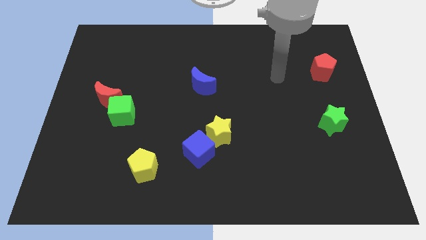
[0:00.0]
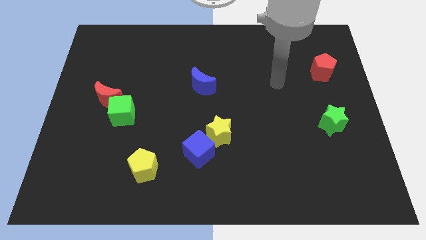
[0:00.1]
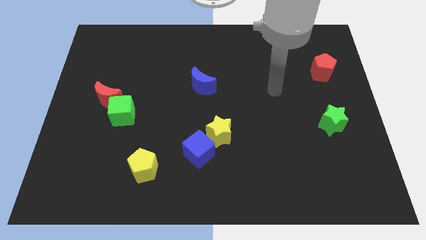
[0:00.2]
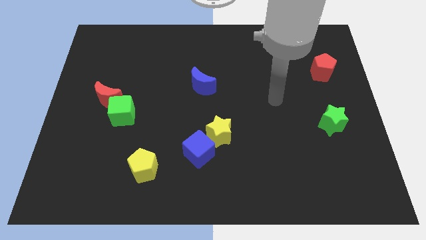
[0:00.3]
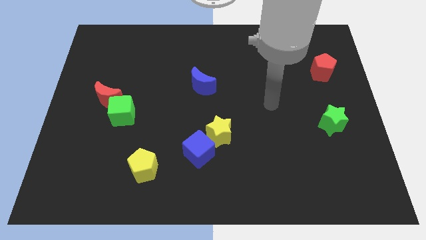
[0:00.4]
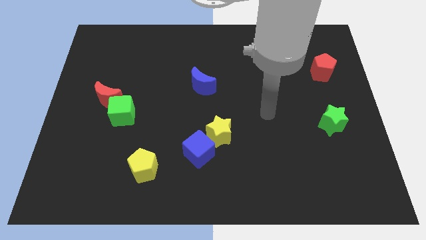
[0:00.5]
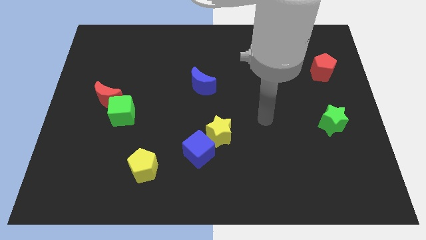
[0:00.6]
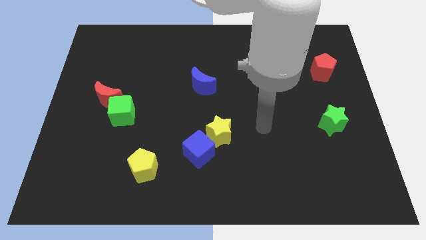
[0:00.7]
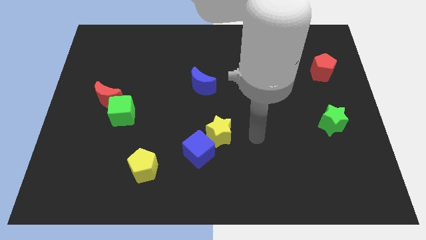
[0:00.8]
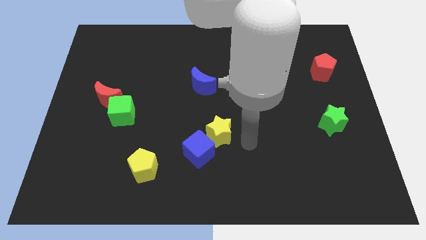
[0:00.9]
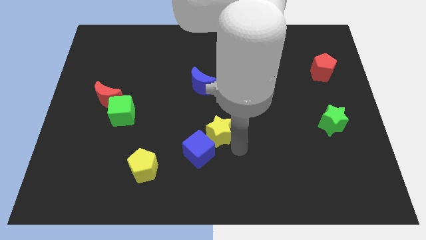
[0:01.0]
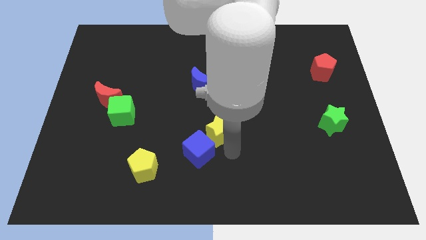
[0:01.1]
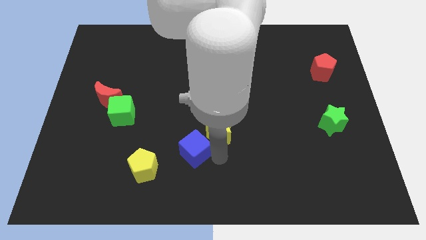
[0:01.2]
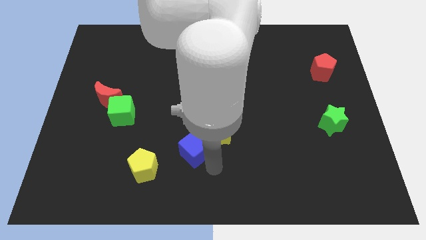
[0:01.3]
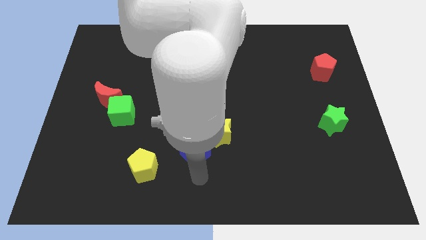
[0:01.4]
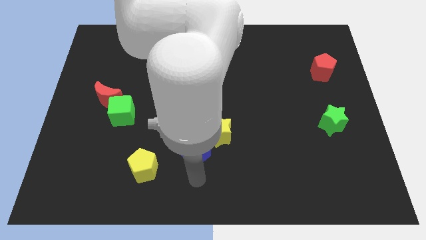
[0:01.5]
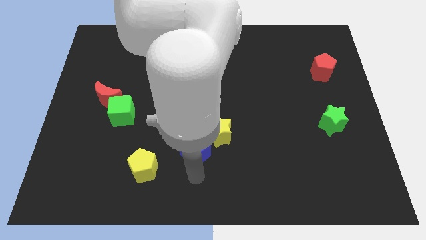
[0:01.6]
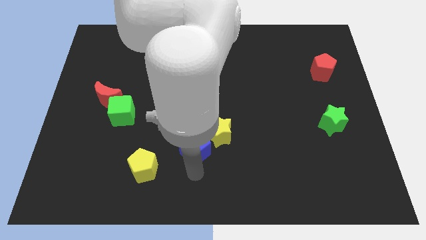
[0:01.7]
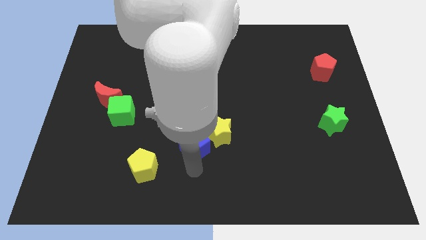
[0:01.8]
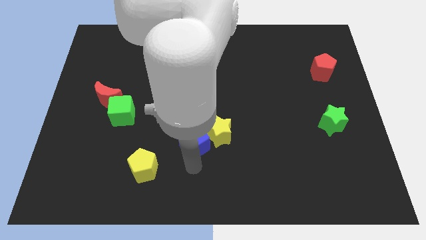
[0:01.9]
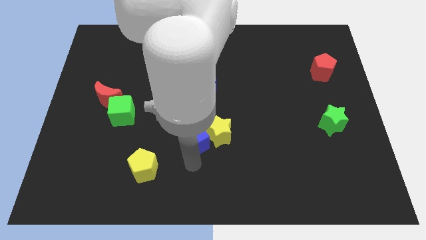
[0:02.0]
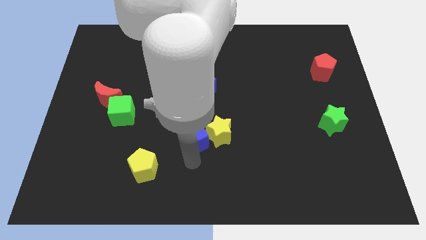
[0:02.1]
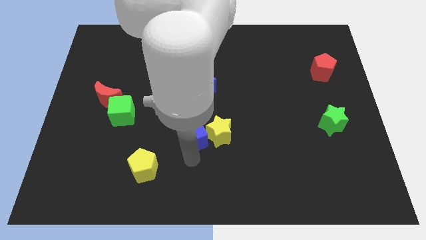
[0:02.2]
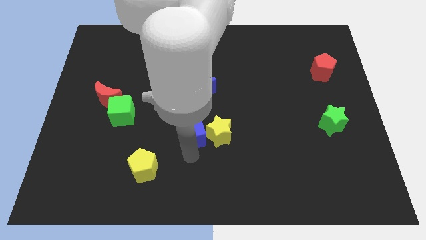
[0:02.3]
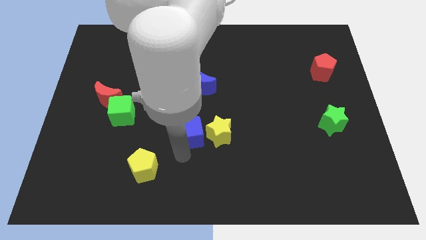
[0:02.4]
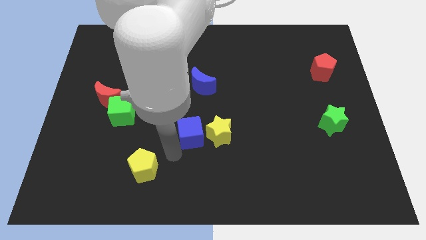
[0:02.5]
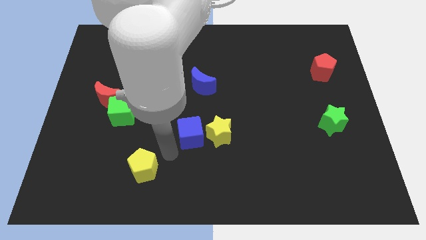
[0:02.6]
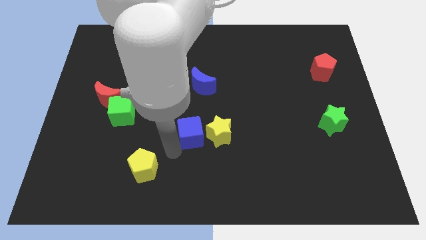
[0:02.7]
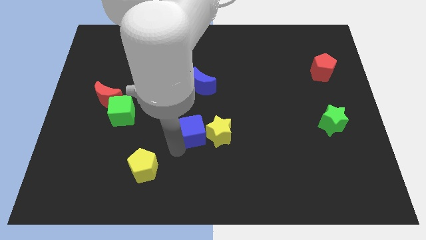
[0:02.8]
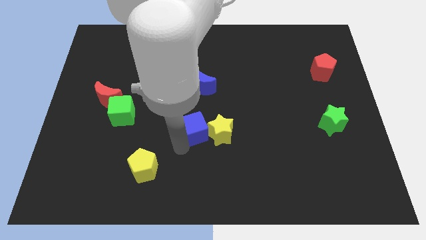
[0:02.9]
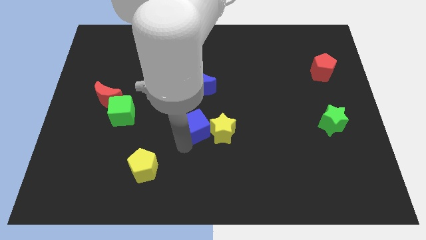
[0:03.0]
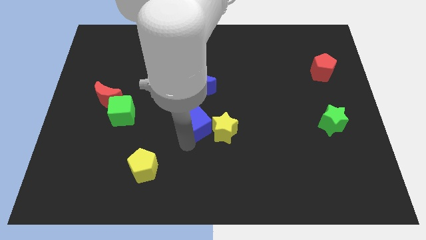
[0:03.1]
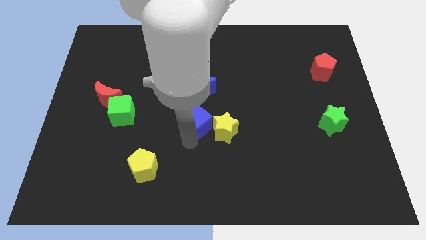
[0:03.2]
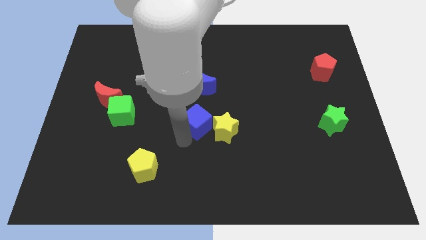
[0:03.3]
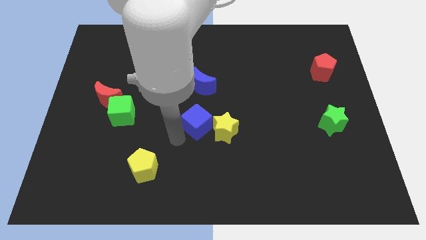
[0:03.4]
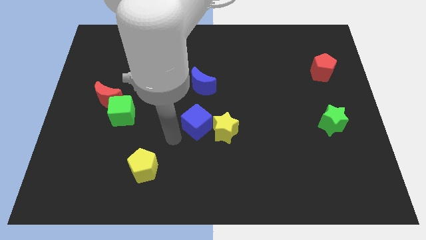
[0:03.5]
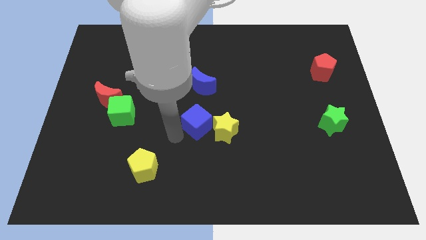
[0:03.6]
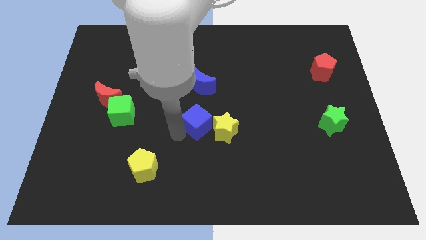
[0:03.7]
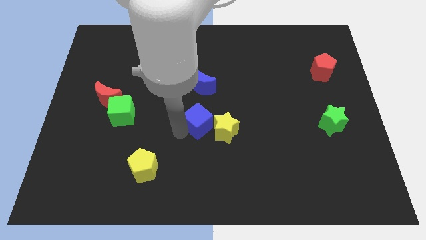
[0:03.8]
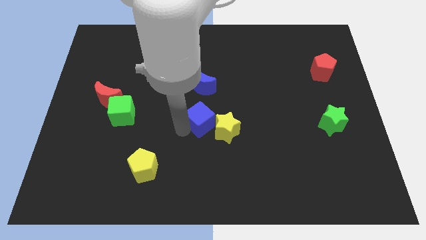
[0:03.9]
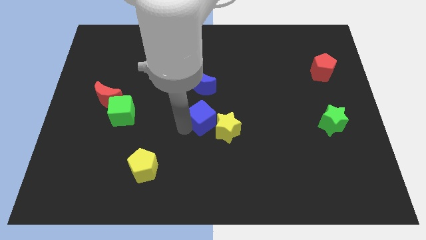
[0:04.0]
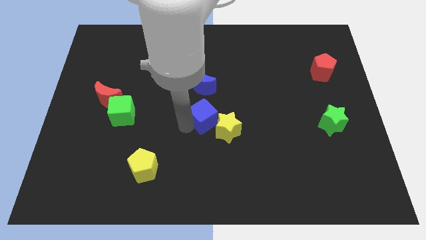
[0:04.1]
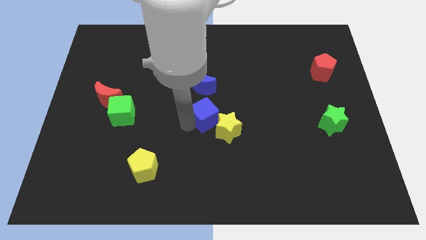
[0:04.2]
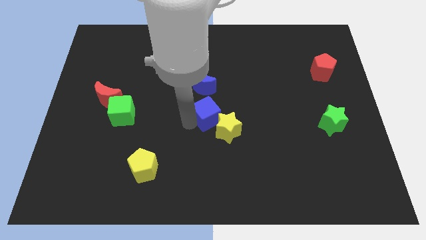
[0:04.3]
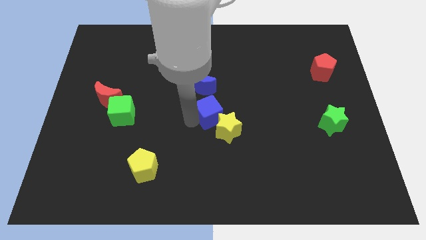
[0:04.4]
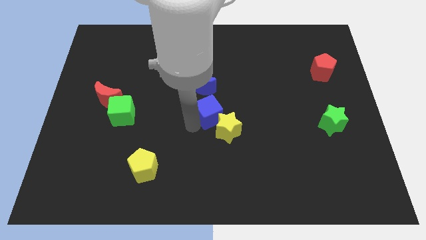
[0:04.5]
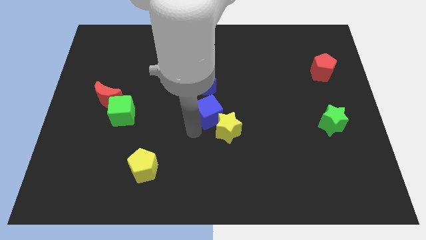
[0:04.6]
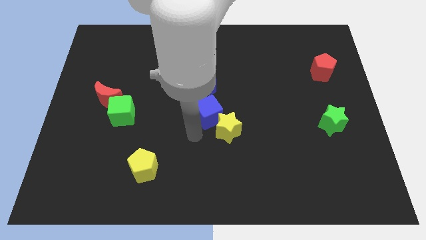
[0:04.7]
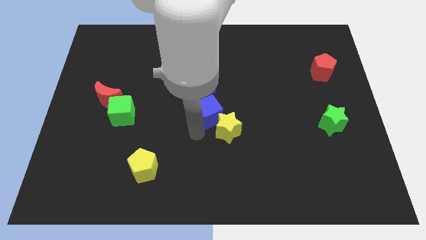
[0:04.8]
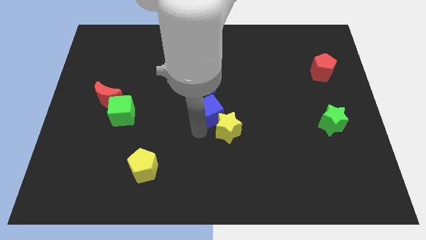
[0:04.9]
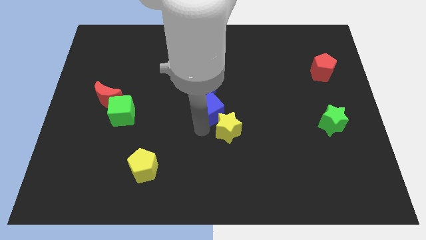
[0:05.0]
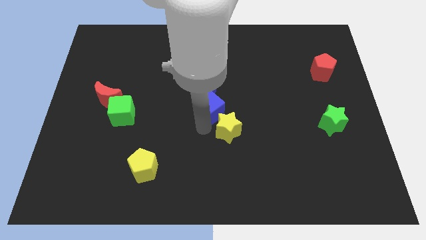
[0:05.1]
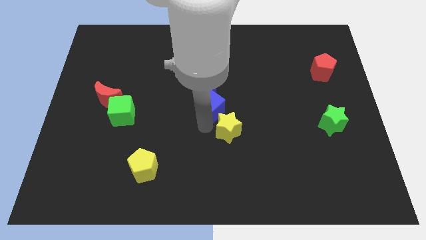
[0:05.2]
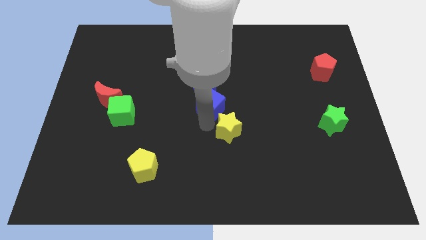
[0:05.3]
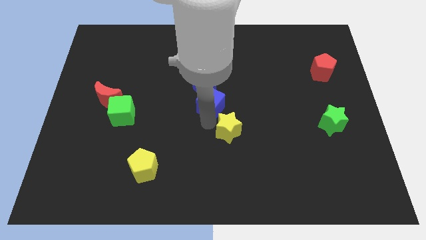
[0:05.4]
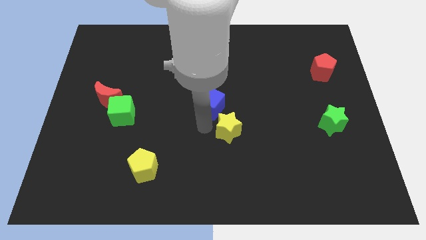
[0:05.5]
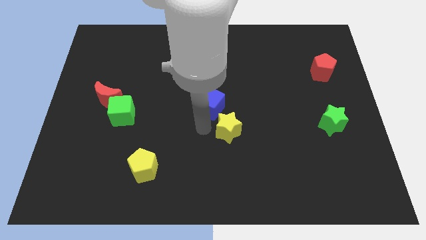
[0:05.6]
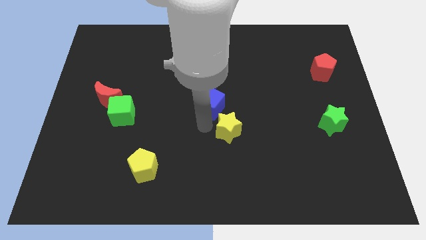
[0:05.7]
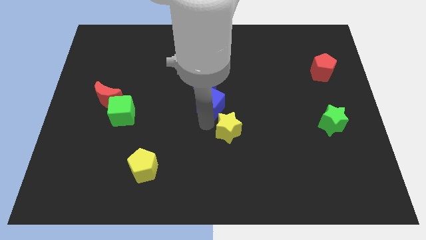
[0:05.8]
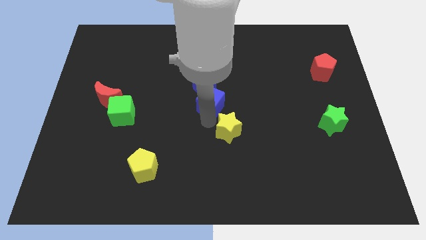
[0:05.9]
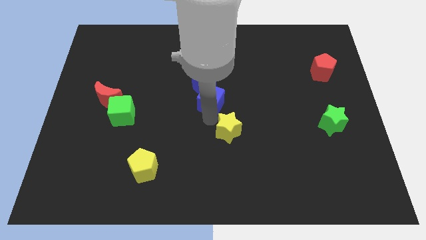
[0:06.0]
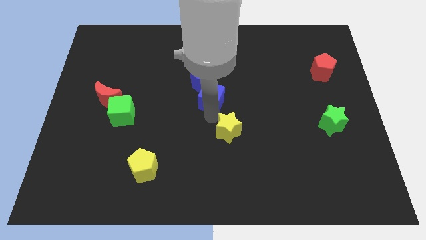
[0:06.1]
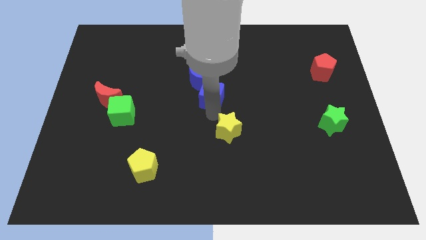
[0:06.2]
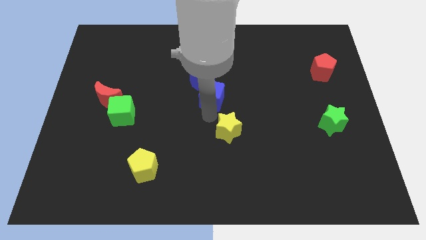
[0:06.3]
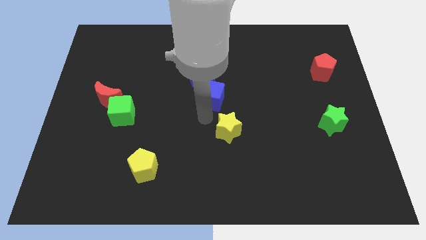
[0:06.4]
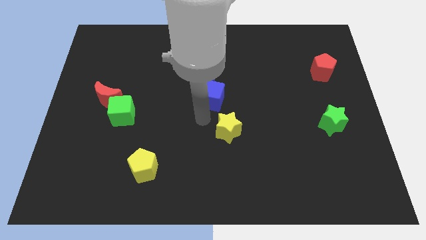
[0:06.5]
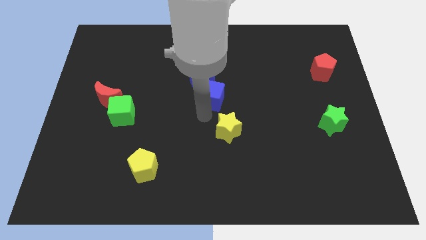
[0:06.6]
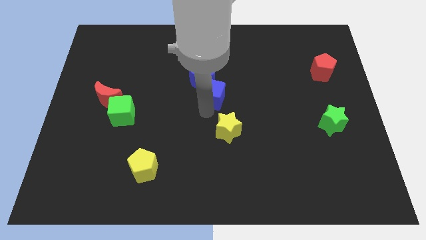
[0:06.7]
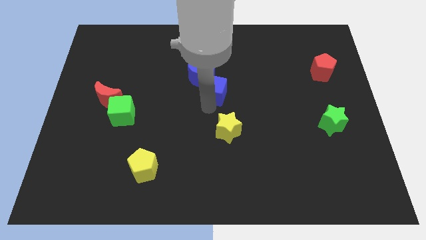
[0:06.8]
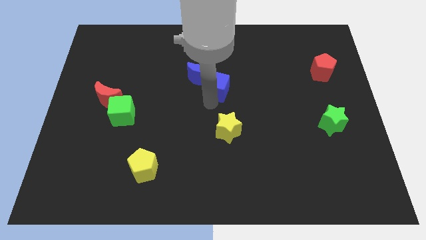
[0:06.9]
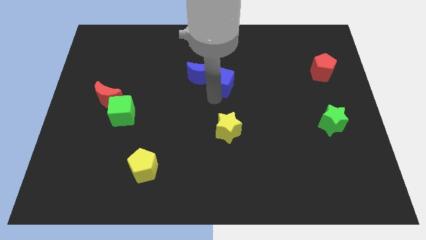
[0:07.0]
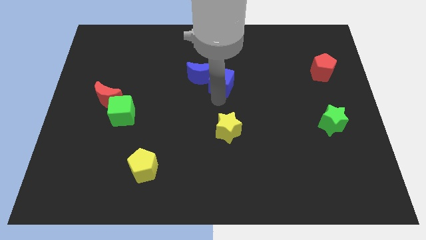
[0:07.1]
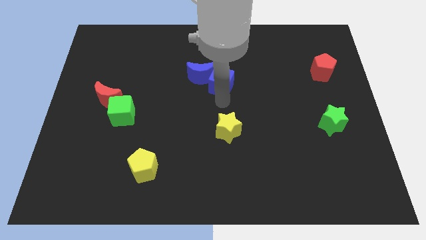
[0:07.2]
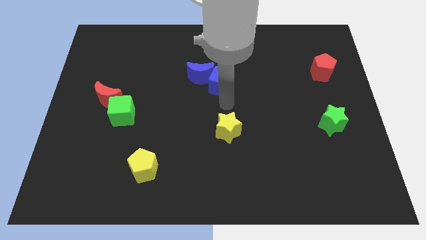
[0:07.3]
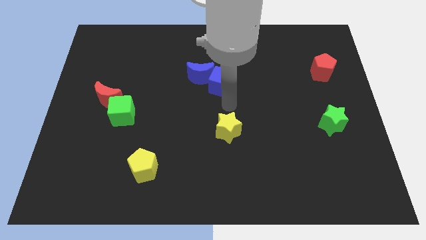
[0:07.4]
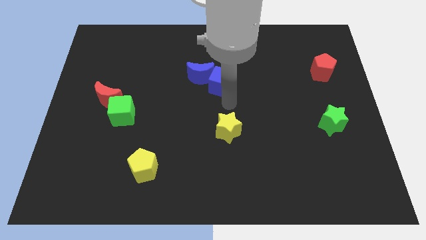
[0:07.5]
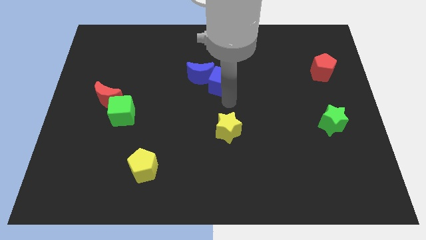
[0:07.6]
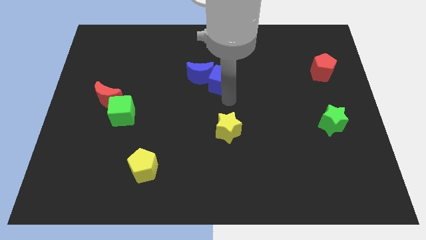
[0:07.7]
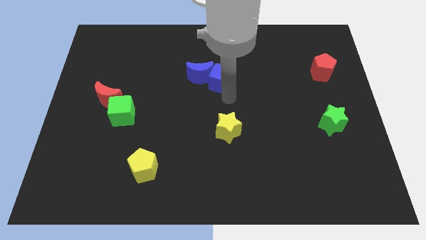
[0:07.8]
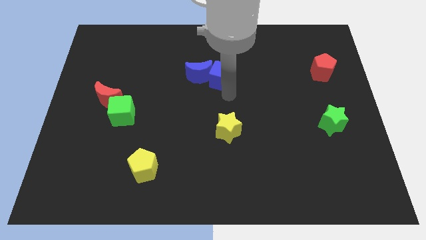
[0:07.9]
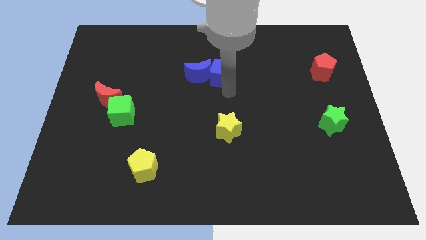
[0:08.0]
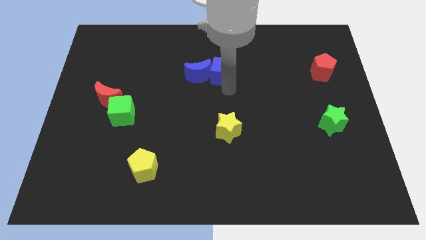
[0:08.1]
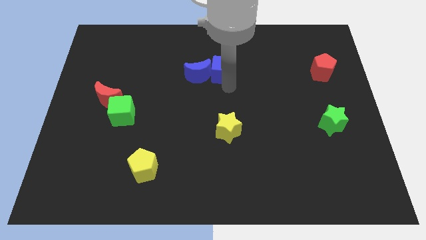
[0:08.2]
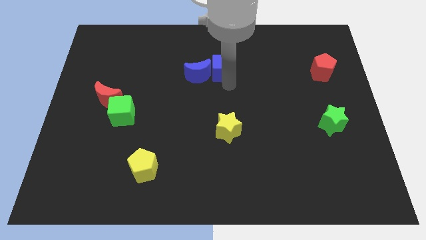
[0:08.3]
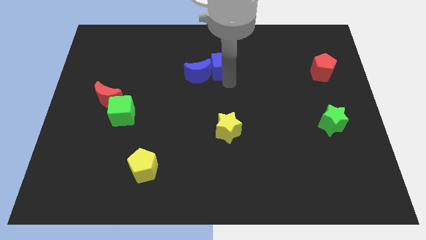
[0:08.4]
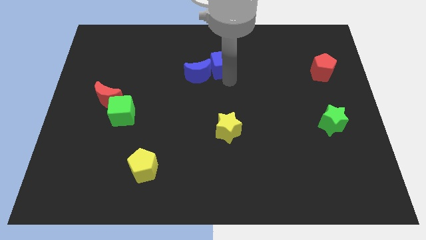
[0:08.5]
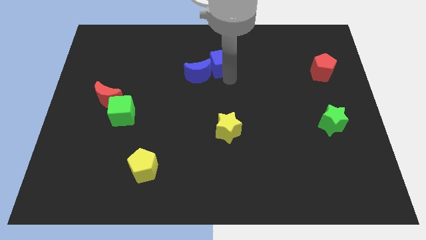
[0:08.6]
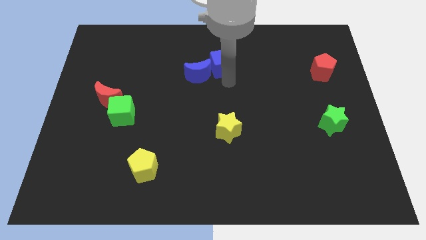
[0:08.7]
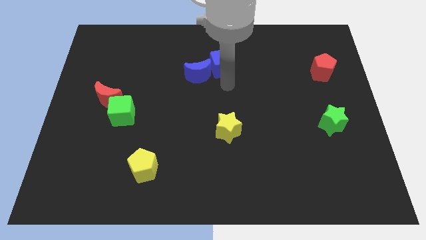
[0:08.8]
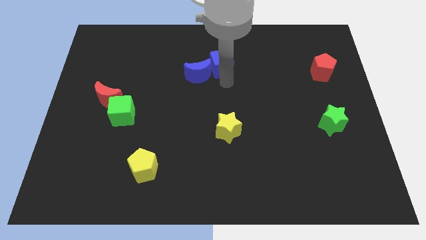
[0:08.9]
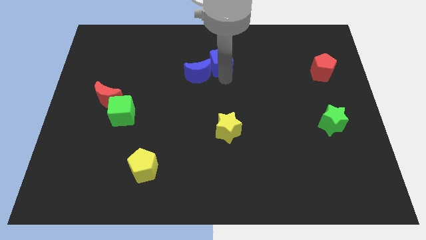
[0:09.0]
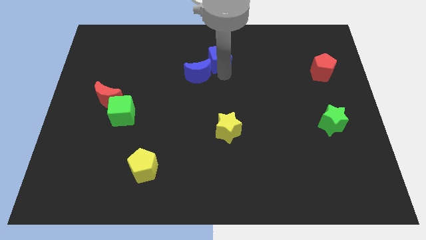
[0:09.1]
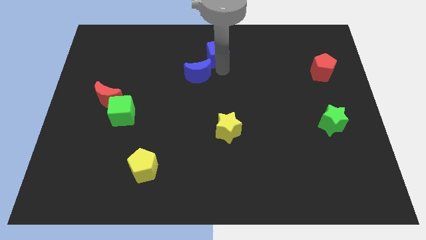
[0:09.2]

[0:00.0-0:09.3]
move the blue cube to the top side
